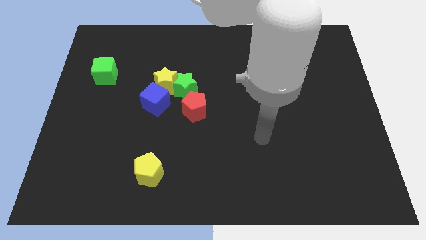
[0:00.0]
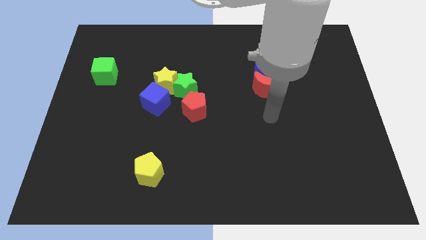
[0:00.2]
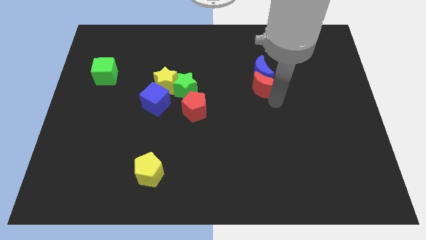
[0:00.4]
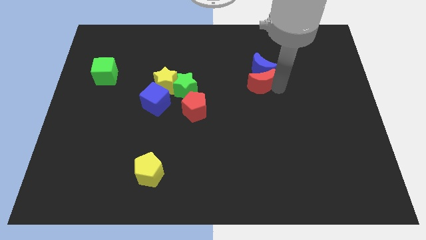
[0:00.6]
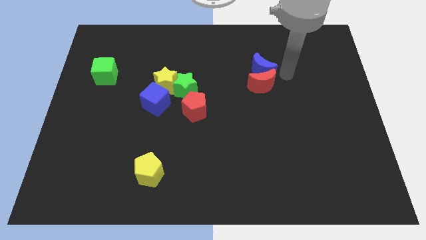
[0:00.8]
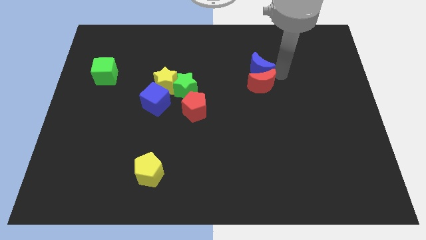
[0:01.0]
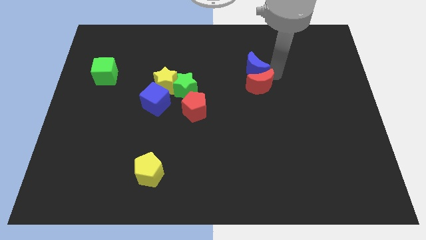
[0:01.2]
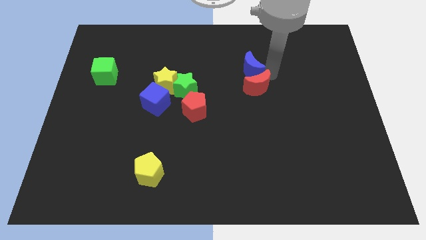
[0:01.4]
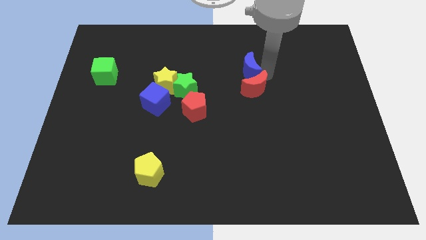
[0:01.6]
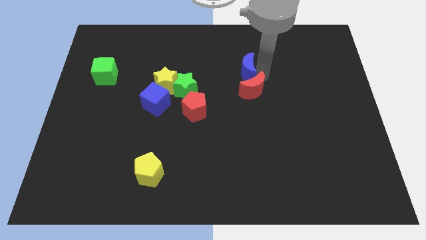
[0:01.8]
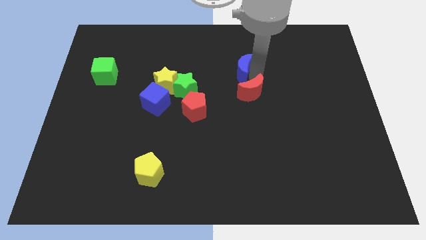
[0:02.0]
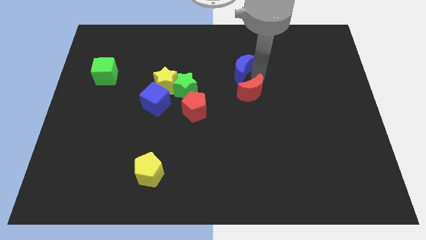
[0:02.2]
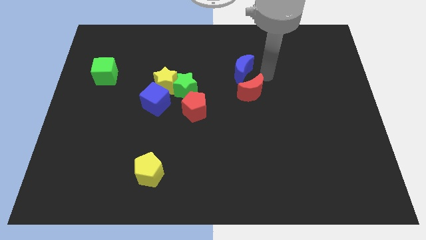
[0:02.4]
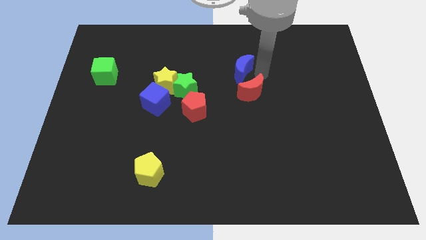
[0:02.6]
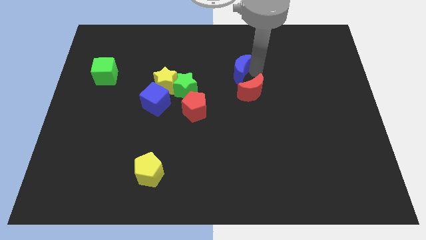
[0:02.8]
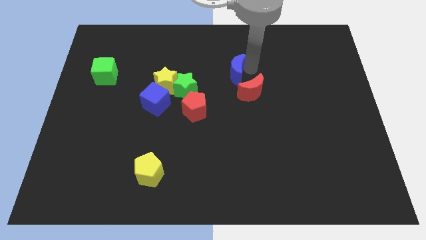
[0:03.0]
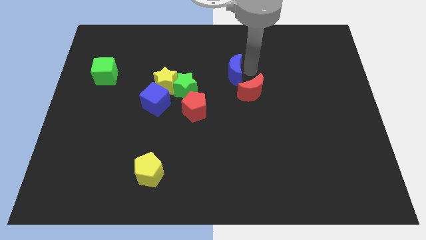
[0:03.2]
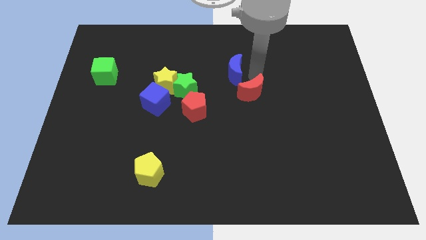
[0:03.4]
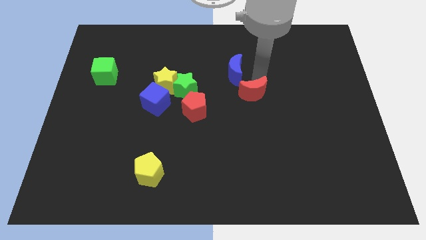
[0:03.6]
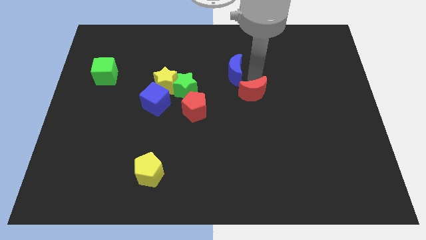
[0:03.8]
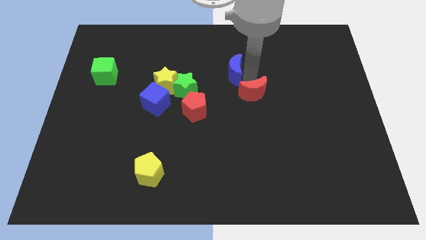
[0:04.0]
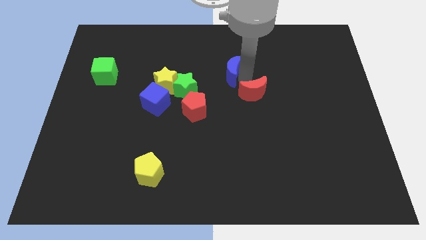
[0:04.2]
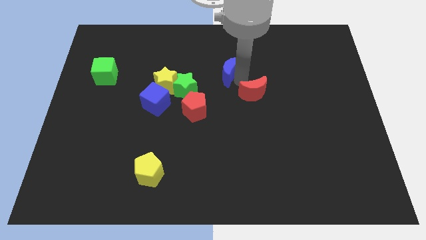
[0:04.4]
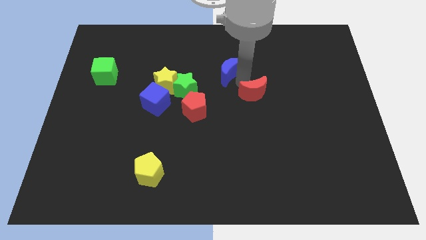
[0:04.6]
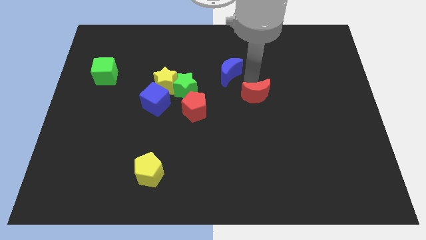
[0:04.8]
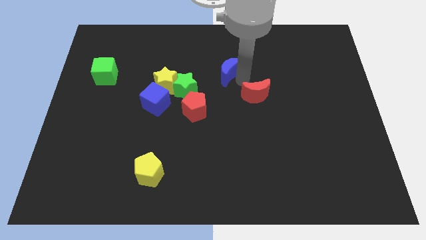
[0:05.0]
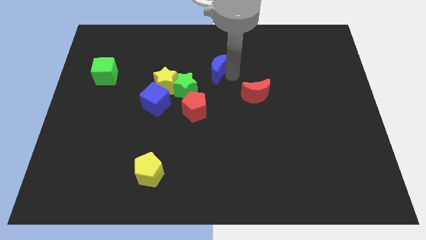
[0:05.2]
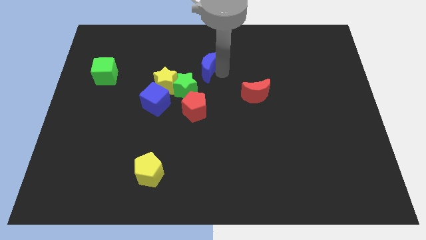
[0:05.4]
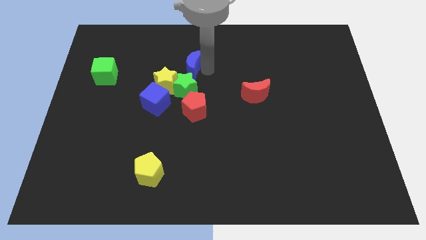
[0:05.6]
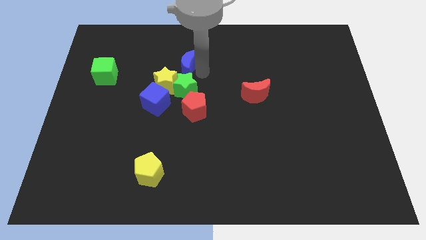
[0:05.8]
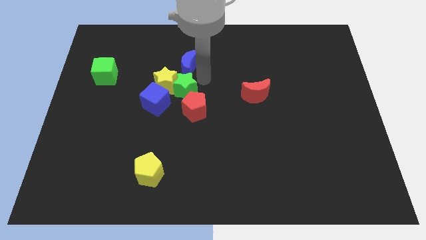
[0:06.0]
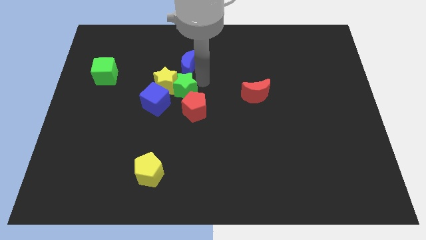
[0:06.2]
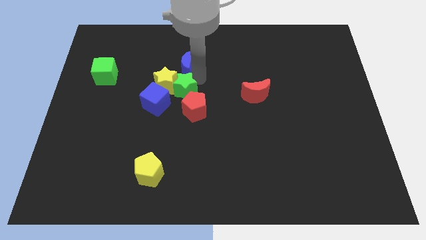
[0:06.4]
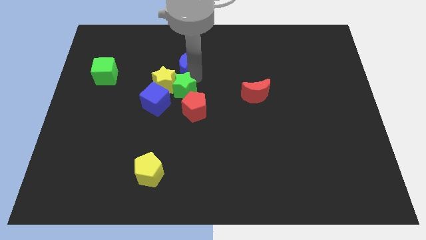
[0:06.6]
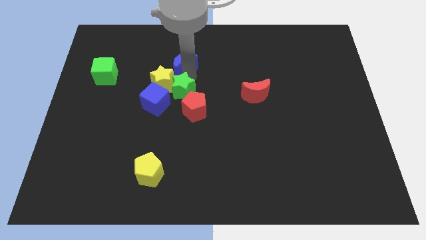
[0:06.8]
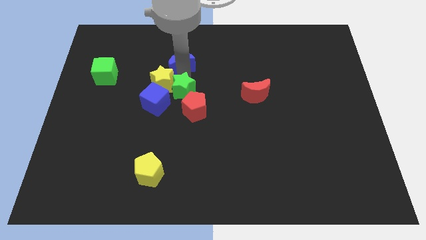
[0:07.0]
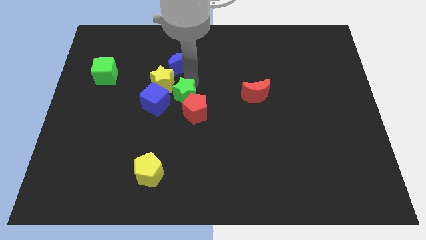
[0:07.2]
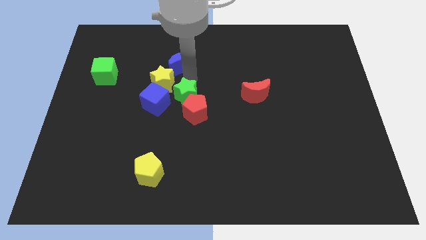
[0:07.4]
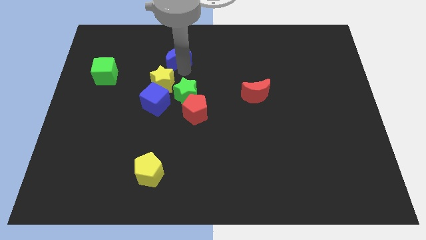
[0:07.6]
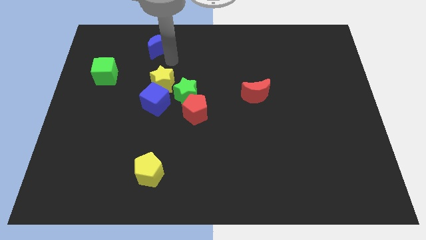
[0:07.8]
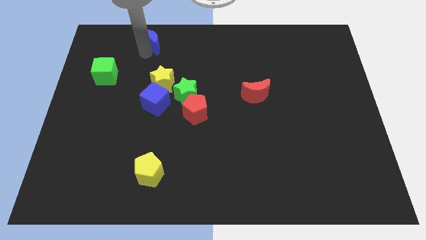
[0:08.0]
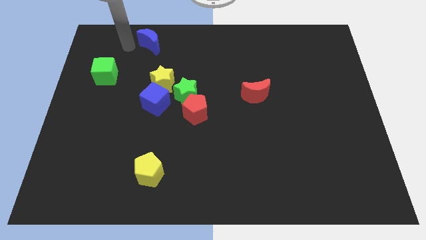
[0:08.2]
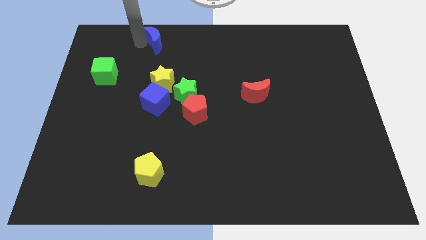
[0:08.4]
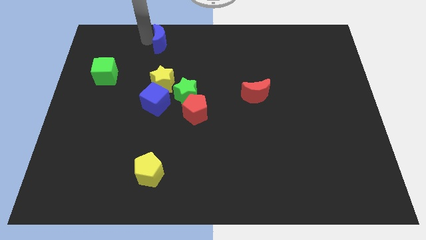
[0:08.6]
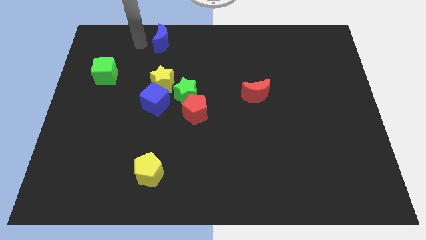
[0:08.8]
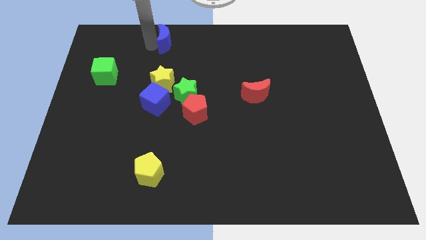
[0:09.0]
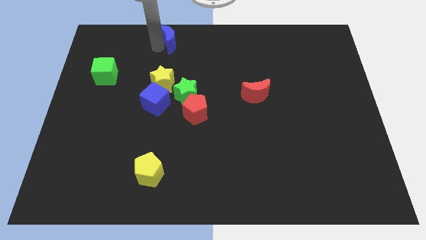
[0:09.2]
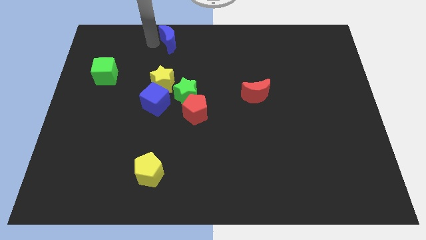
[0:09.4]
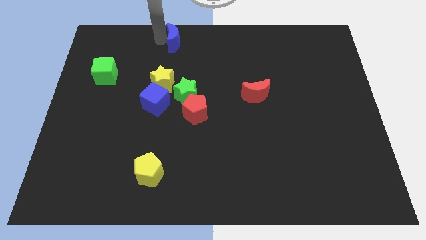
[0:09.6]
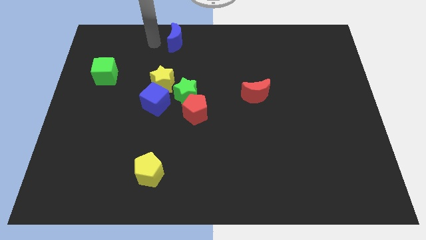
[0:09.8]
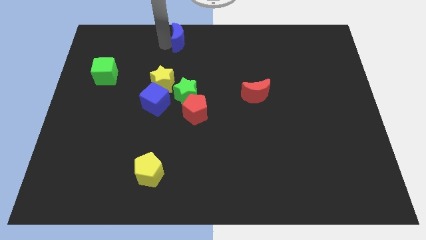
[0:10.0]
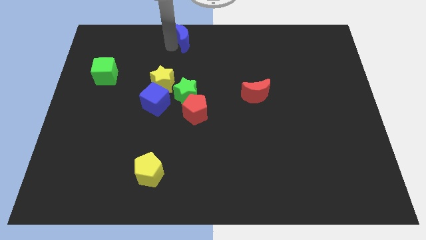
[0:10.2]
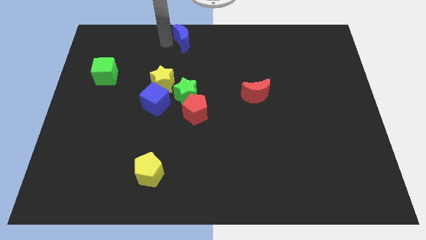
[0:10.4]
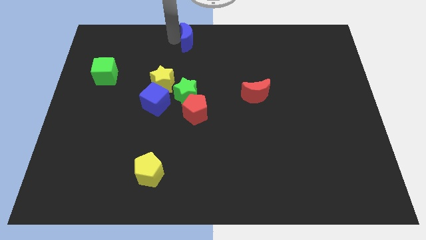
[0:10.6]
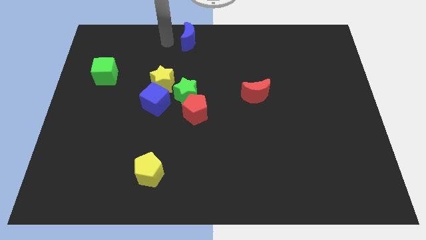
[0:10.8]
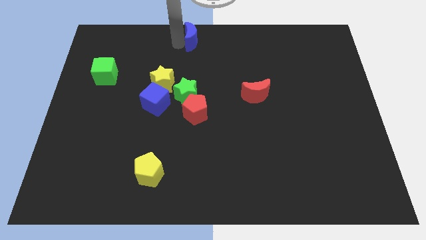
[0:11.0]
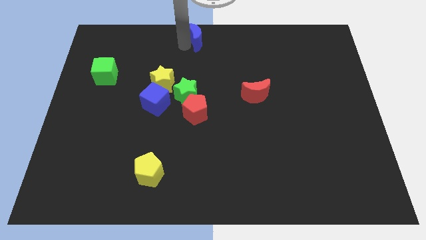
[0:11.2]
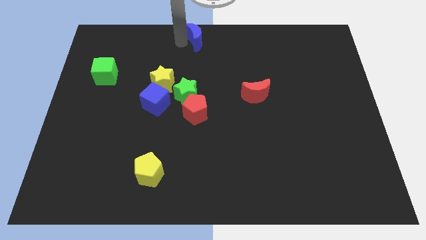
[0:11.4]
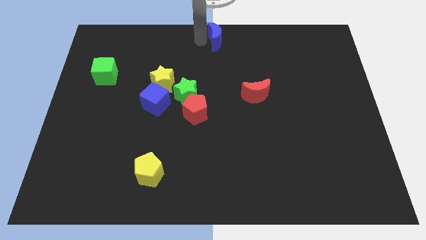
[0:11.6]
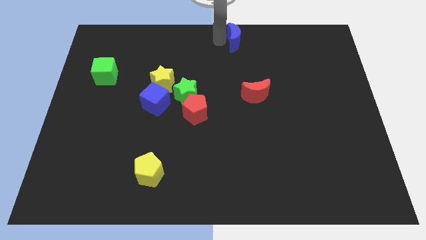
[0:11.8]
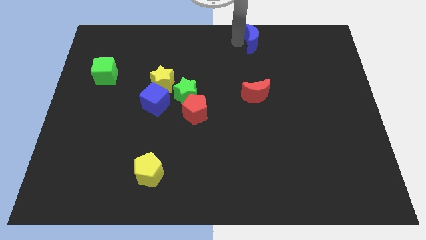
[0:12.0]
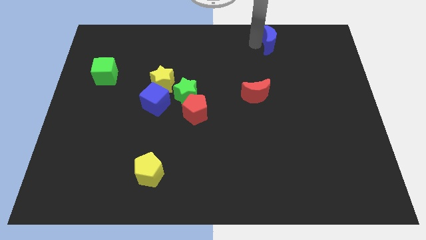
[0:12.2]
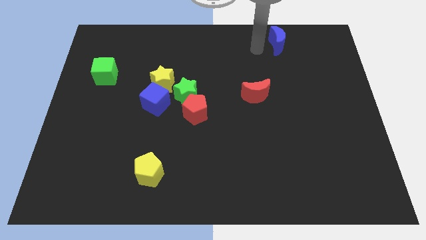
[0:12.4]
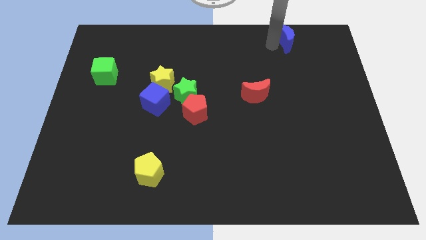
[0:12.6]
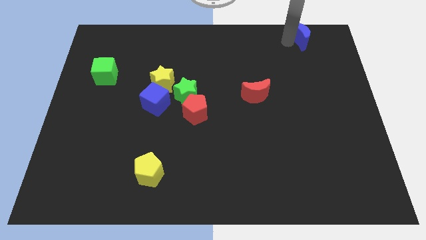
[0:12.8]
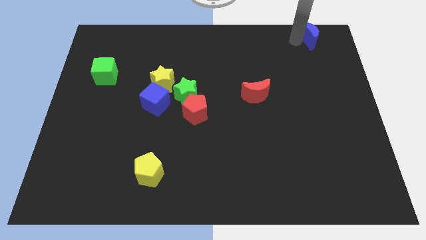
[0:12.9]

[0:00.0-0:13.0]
put the blue moon to the top right corner
